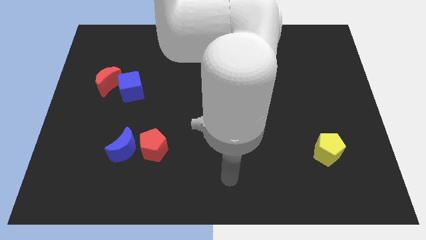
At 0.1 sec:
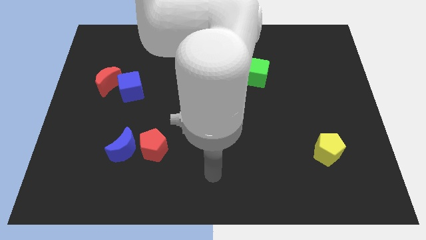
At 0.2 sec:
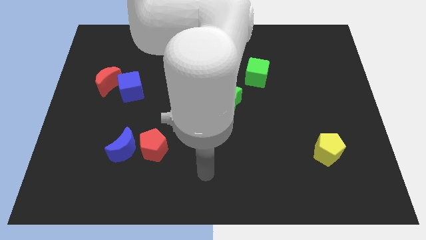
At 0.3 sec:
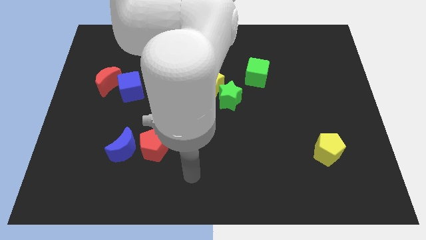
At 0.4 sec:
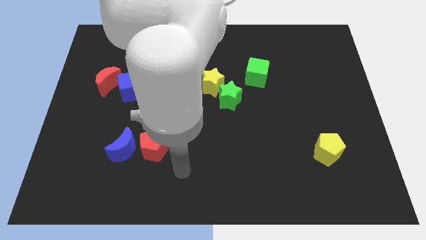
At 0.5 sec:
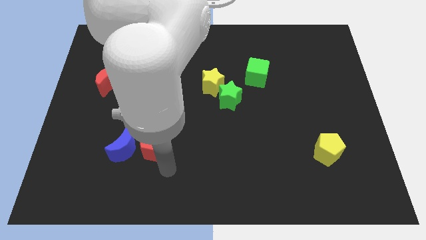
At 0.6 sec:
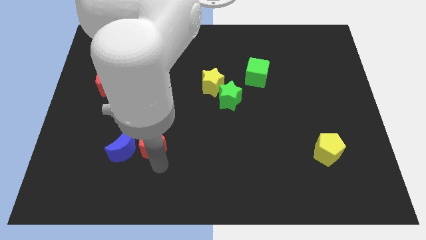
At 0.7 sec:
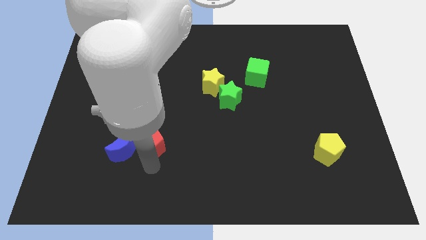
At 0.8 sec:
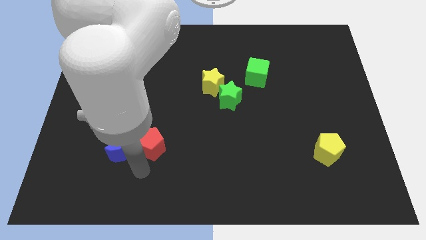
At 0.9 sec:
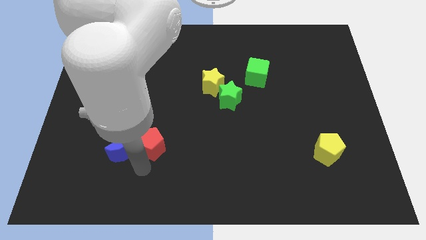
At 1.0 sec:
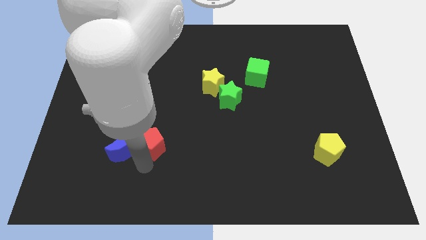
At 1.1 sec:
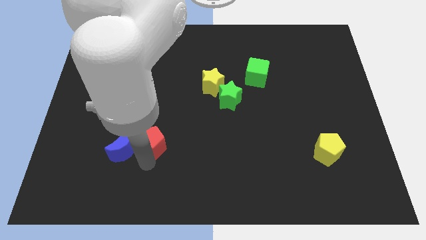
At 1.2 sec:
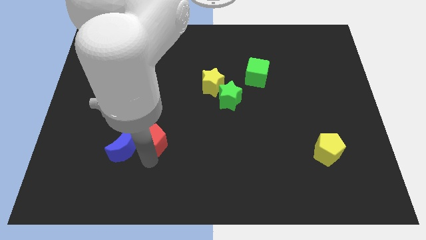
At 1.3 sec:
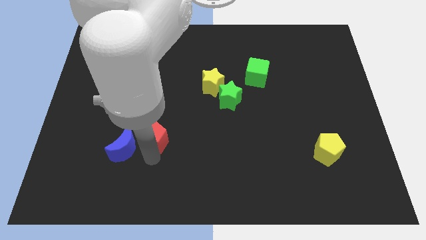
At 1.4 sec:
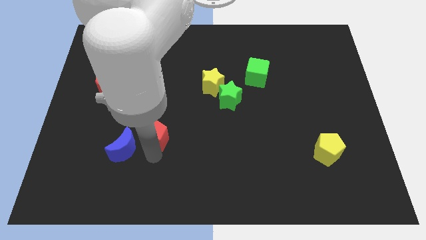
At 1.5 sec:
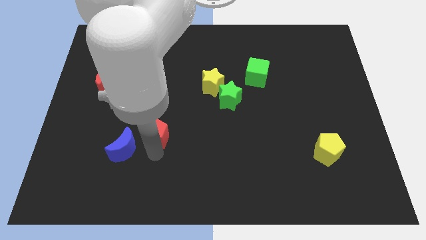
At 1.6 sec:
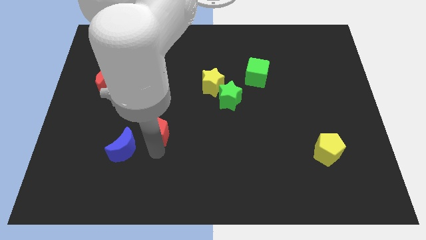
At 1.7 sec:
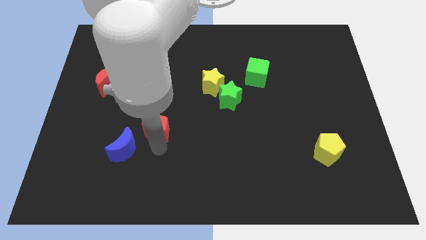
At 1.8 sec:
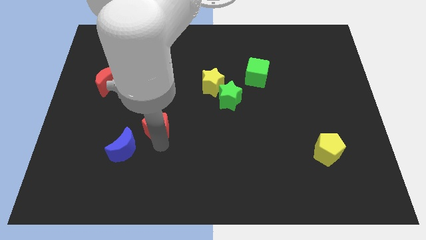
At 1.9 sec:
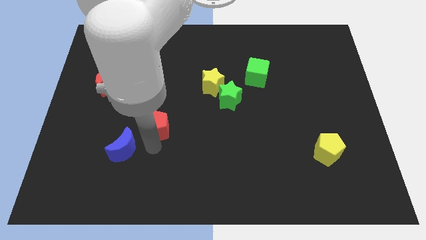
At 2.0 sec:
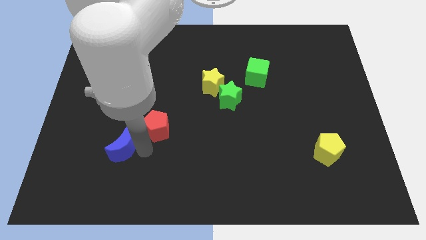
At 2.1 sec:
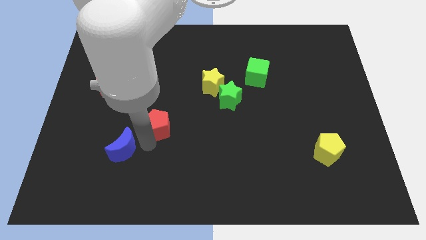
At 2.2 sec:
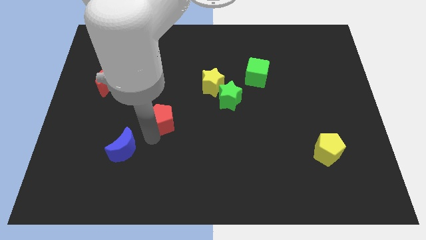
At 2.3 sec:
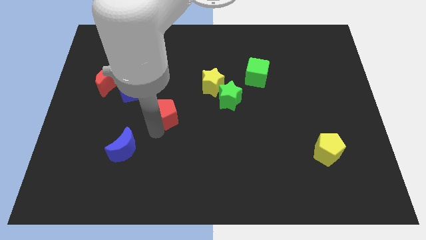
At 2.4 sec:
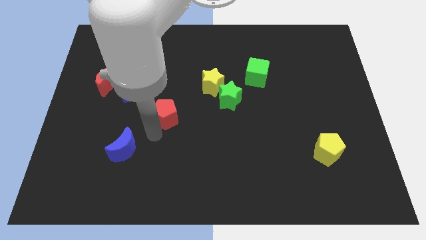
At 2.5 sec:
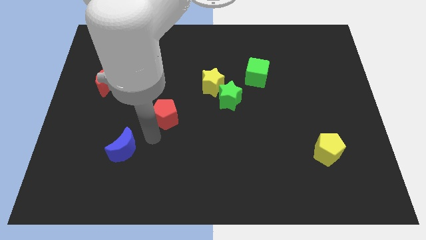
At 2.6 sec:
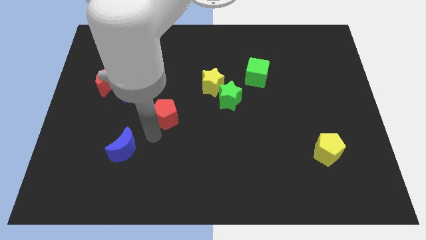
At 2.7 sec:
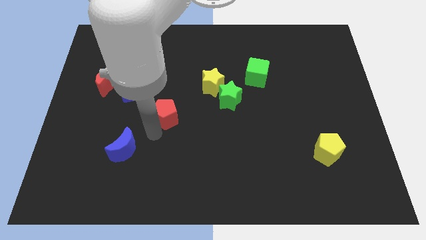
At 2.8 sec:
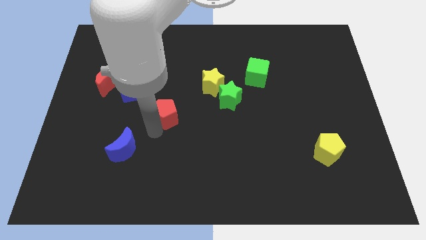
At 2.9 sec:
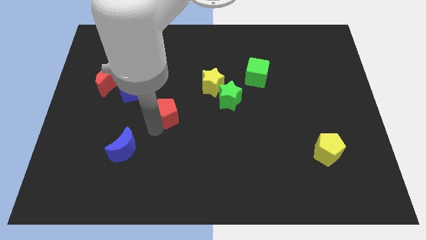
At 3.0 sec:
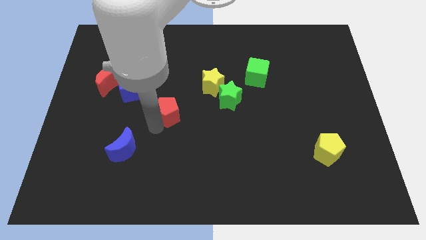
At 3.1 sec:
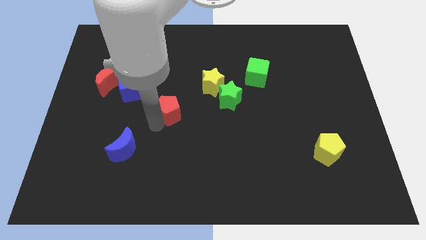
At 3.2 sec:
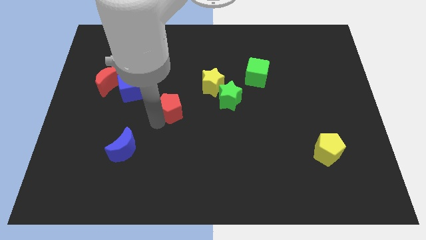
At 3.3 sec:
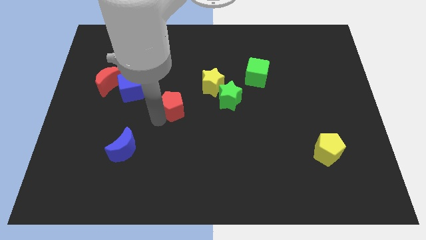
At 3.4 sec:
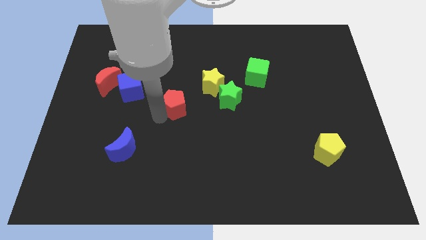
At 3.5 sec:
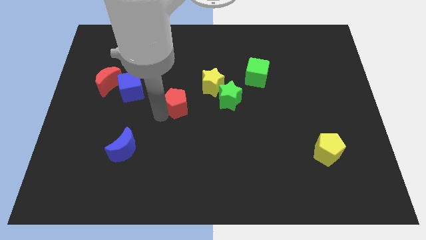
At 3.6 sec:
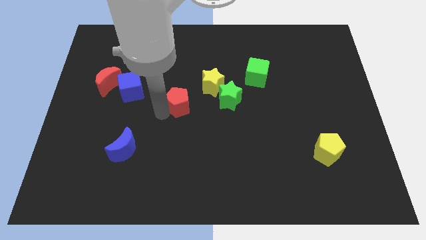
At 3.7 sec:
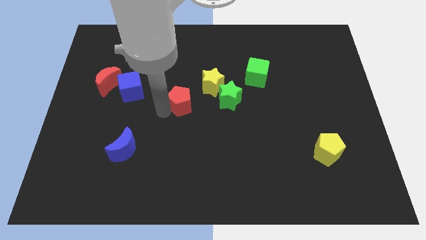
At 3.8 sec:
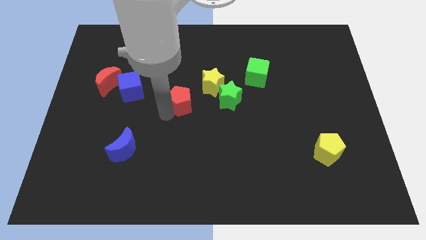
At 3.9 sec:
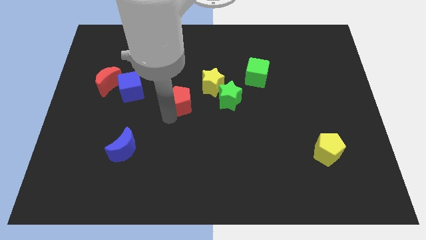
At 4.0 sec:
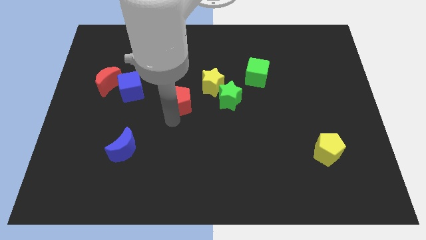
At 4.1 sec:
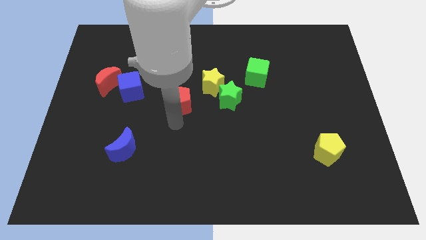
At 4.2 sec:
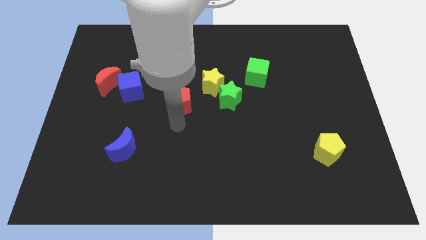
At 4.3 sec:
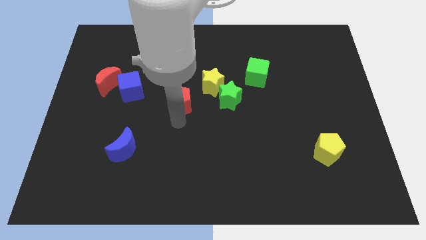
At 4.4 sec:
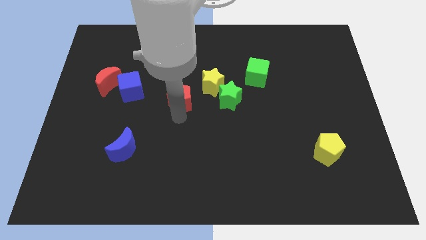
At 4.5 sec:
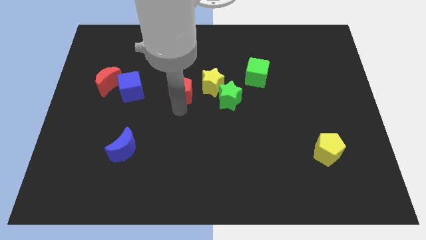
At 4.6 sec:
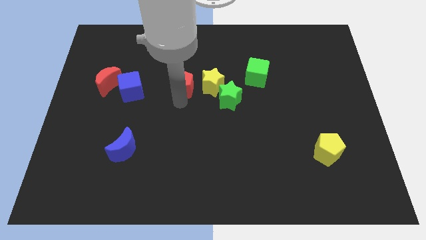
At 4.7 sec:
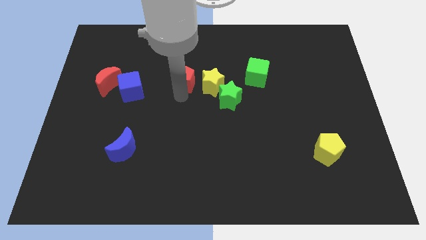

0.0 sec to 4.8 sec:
push the red pentagon to the top left side of the yellow star
